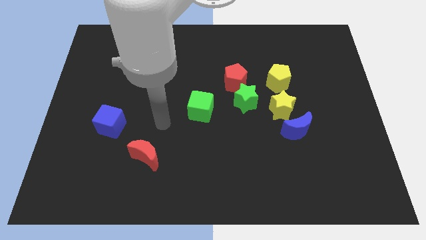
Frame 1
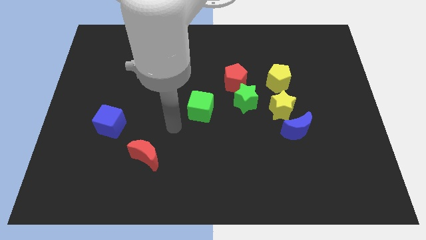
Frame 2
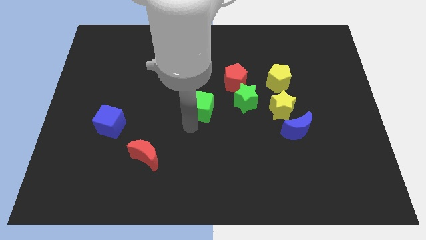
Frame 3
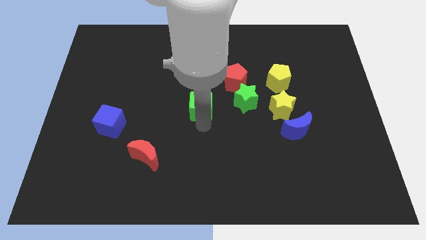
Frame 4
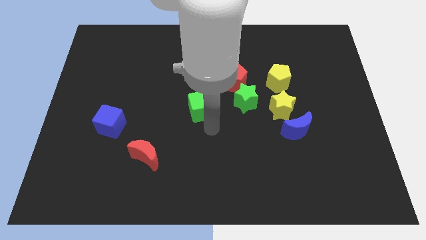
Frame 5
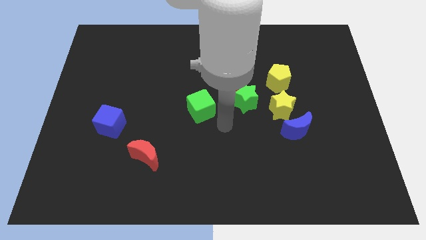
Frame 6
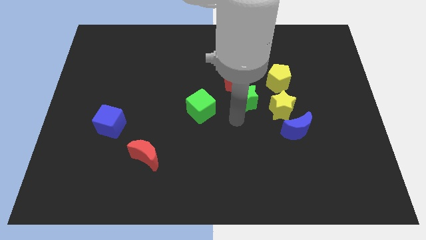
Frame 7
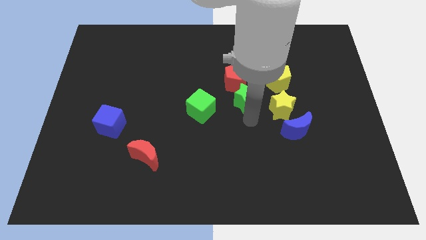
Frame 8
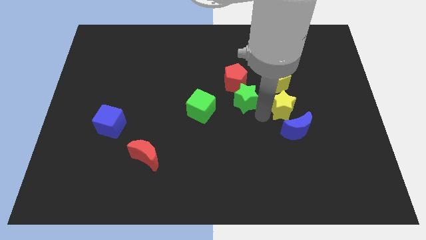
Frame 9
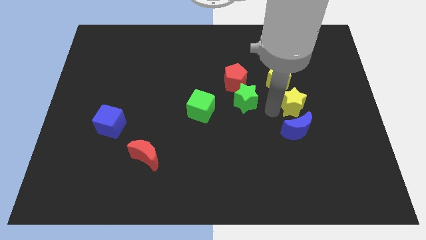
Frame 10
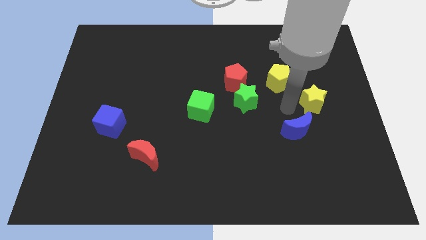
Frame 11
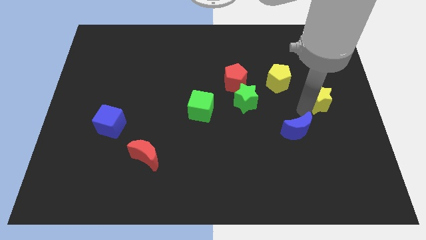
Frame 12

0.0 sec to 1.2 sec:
pull the blue moon apart from the yellow star

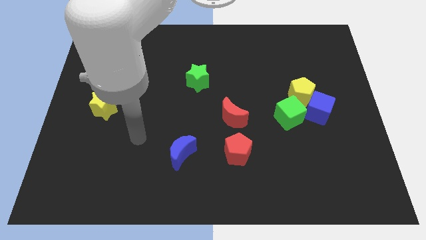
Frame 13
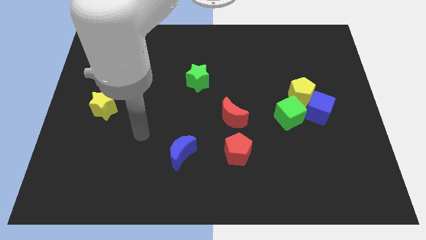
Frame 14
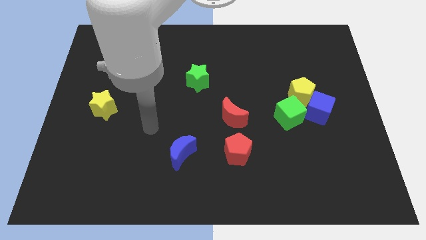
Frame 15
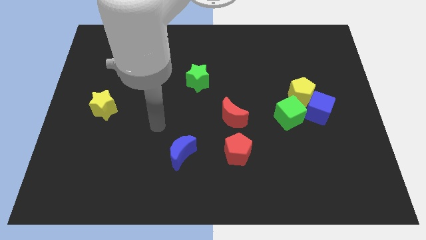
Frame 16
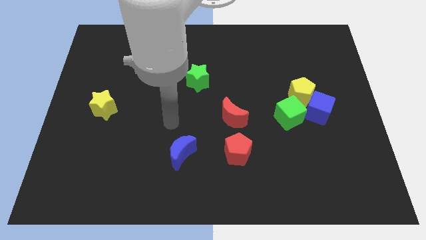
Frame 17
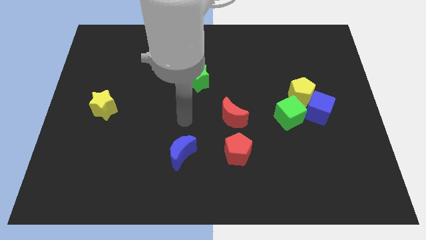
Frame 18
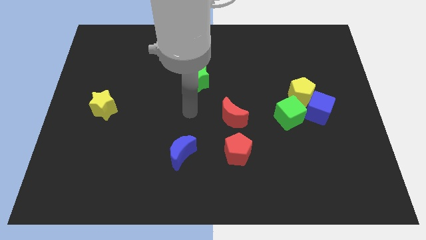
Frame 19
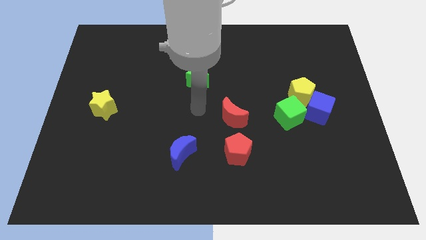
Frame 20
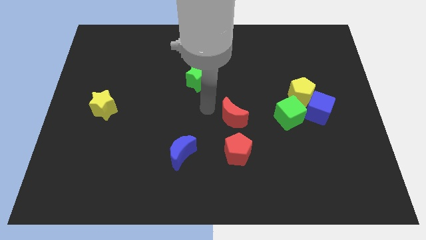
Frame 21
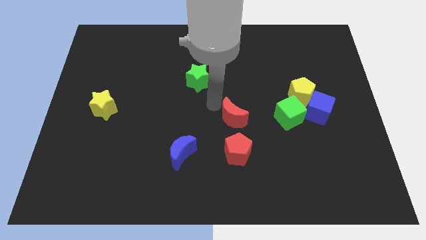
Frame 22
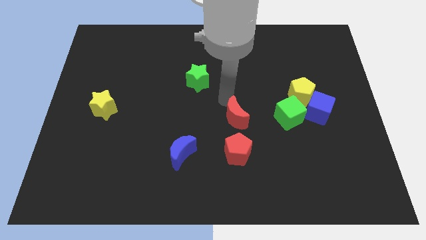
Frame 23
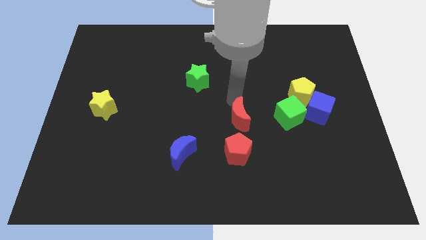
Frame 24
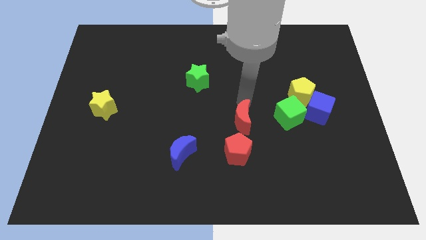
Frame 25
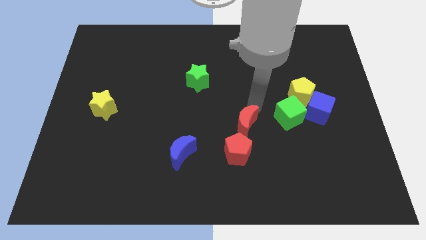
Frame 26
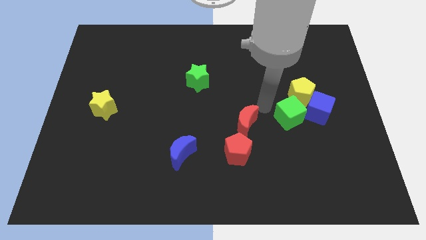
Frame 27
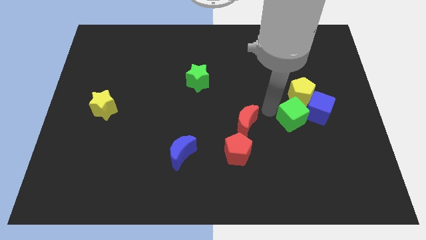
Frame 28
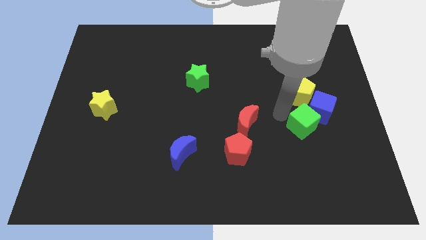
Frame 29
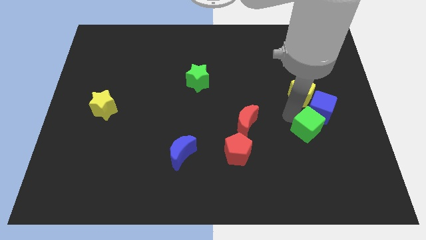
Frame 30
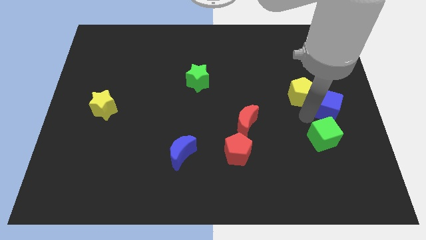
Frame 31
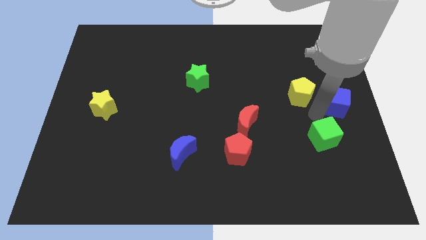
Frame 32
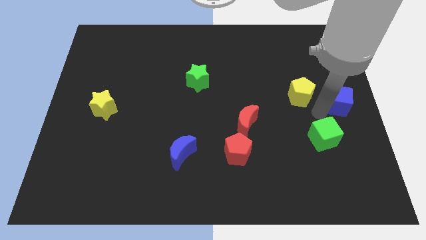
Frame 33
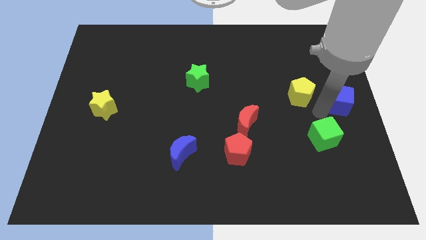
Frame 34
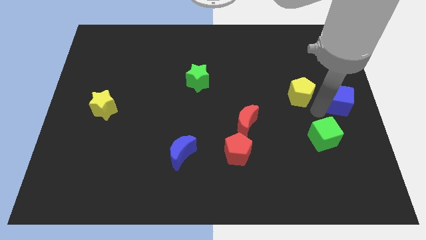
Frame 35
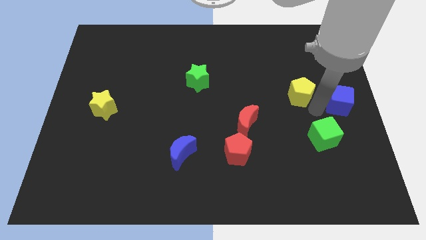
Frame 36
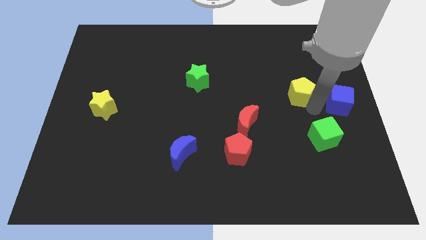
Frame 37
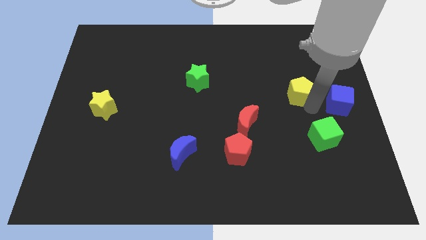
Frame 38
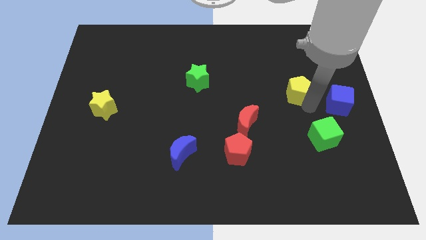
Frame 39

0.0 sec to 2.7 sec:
pull the yellow pentagon apart from the blue cube and green cube

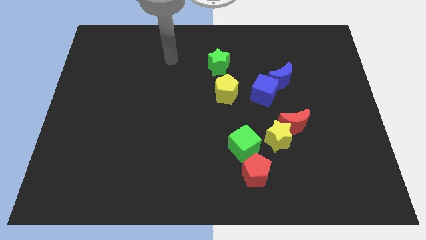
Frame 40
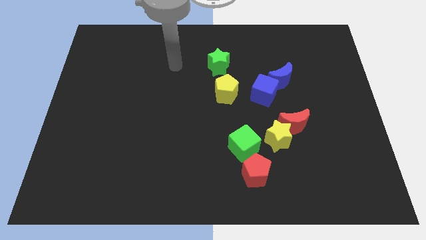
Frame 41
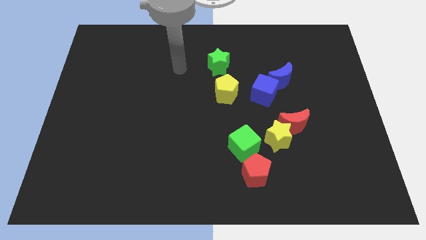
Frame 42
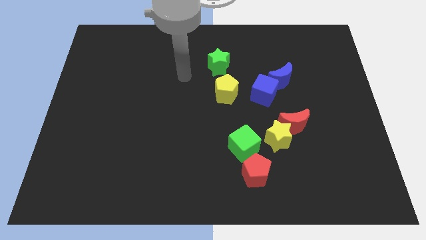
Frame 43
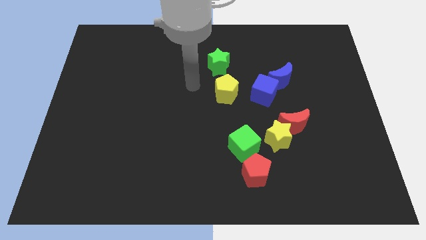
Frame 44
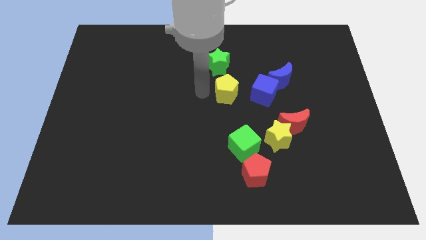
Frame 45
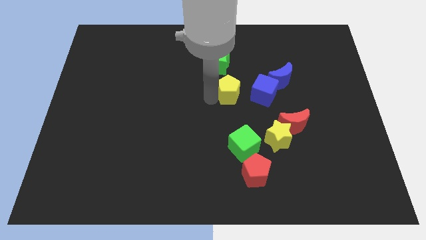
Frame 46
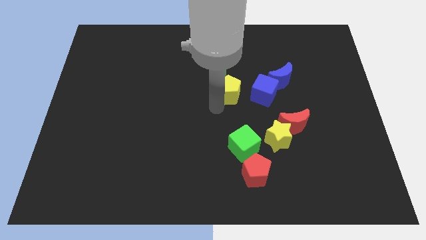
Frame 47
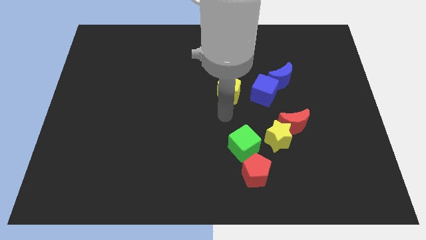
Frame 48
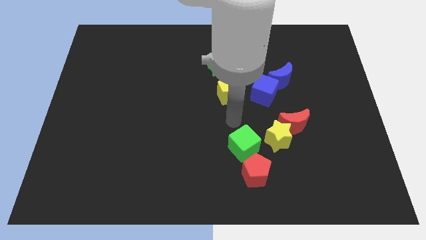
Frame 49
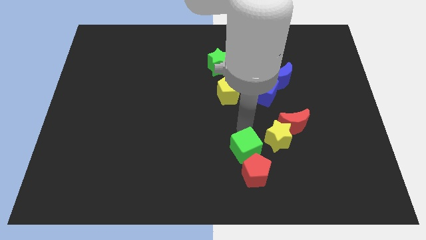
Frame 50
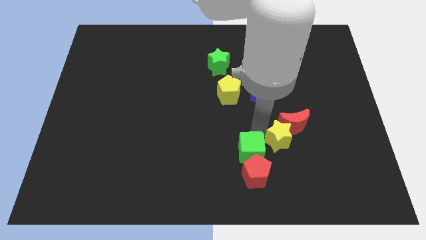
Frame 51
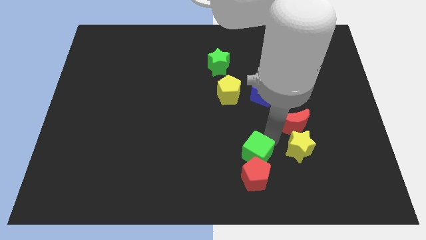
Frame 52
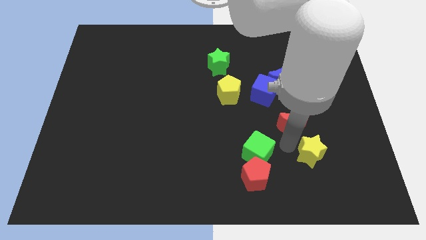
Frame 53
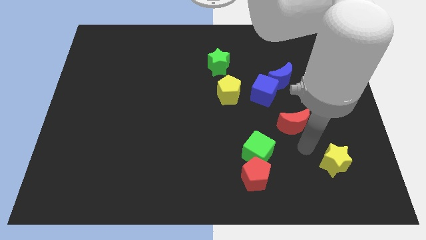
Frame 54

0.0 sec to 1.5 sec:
pull the red moon apart from the yellow star

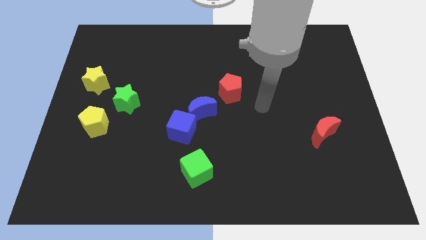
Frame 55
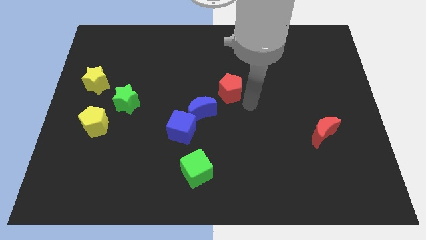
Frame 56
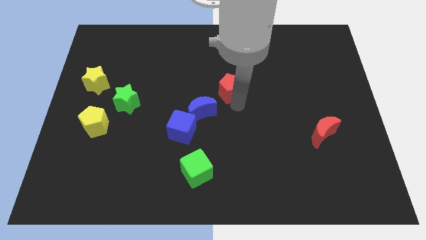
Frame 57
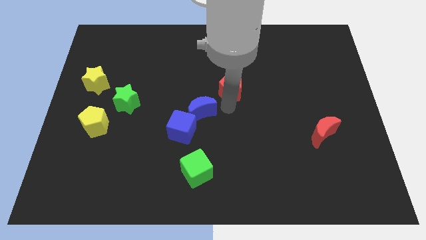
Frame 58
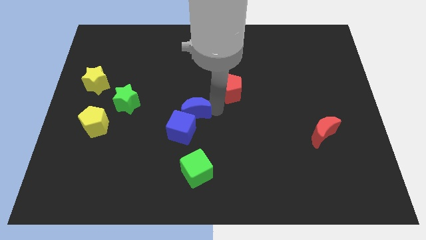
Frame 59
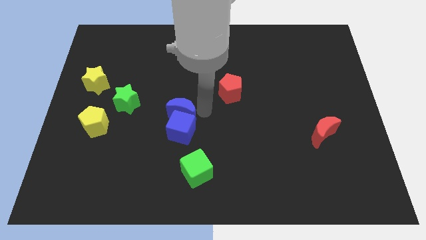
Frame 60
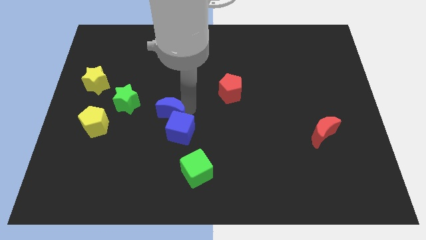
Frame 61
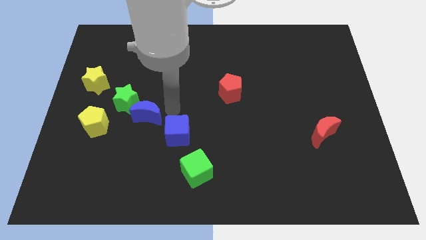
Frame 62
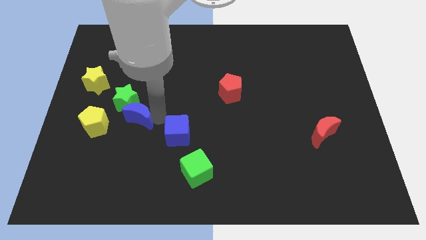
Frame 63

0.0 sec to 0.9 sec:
move the blue cube away from the blue moon

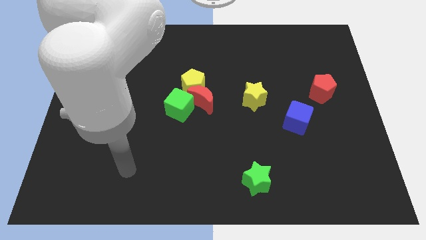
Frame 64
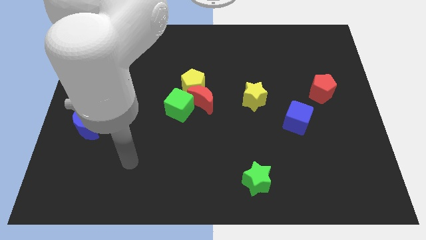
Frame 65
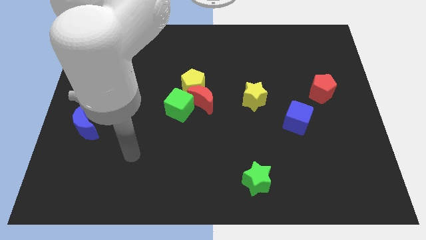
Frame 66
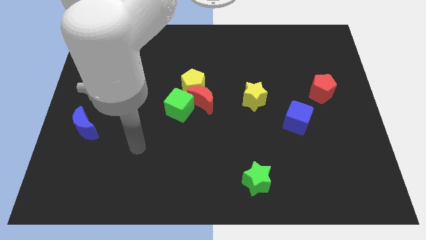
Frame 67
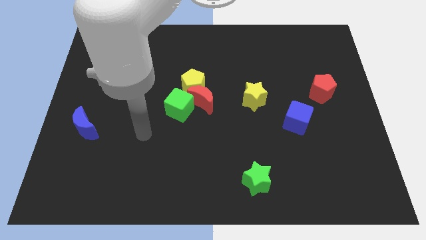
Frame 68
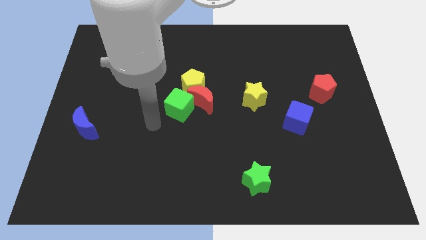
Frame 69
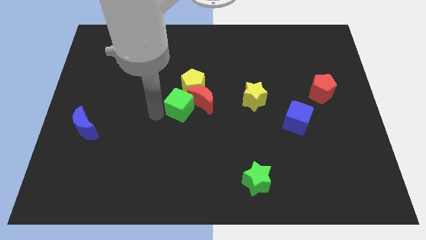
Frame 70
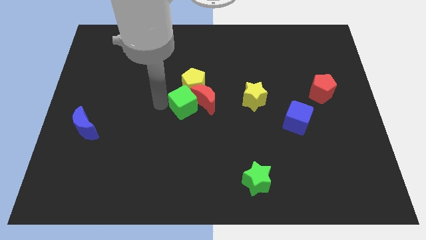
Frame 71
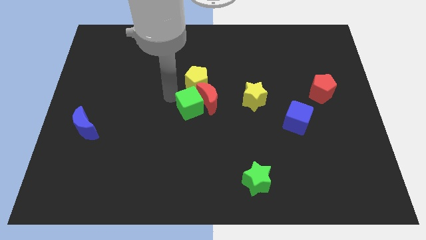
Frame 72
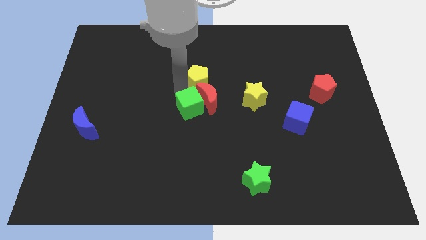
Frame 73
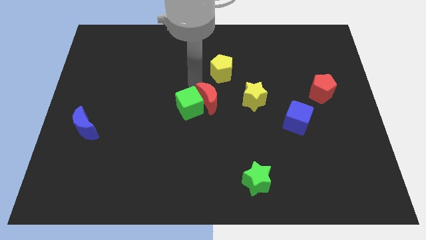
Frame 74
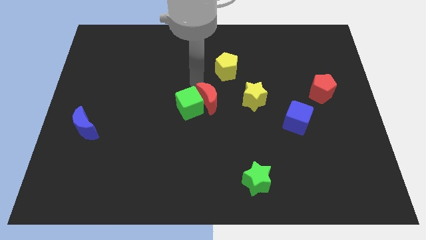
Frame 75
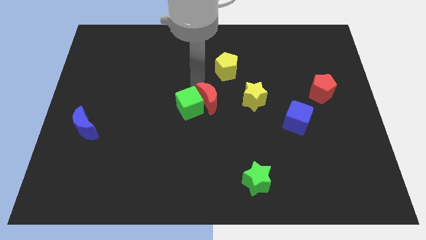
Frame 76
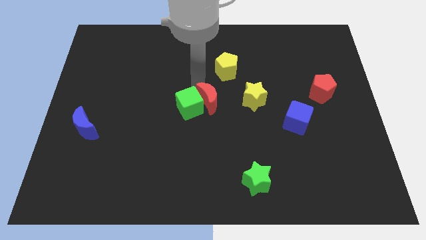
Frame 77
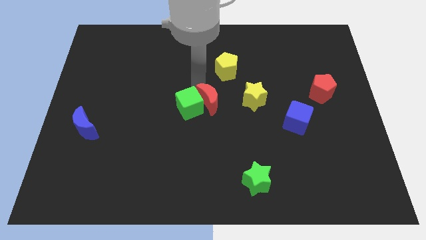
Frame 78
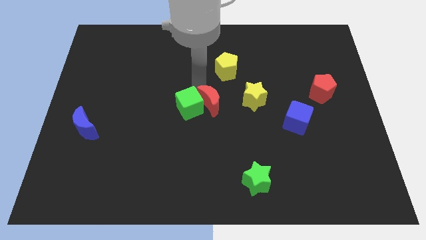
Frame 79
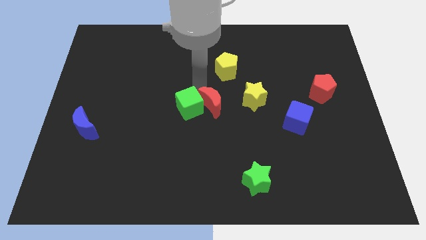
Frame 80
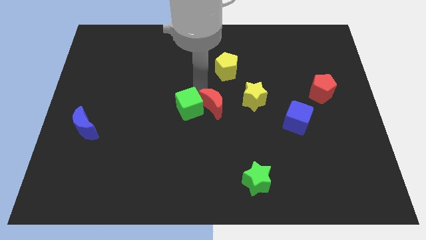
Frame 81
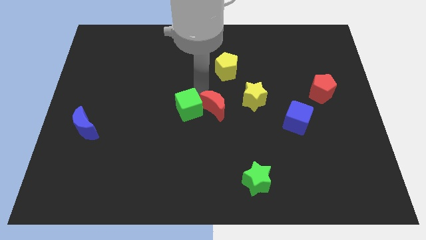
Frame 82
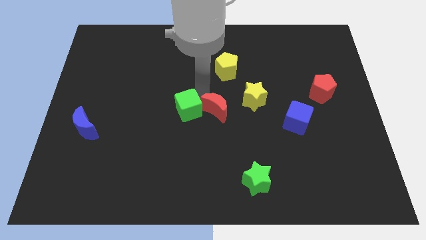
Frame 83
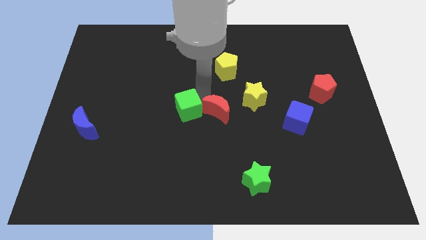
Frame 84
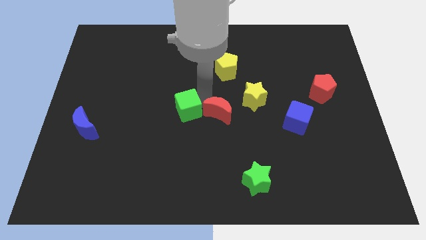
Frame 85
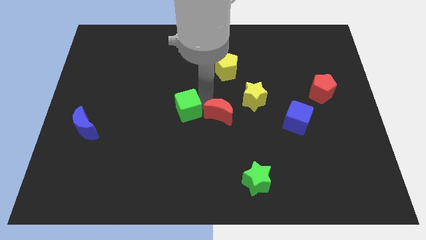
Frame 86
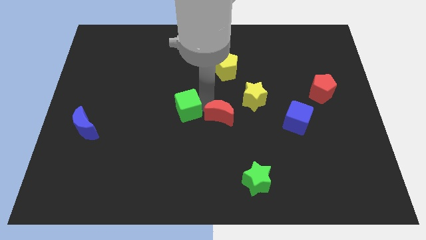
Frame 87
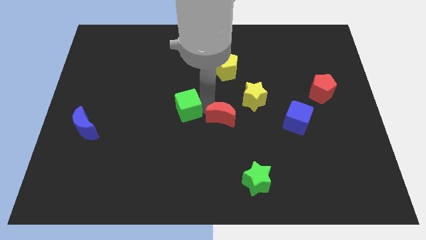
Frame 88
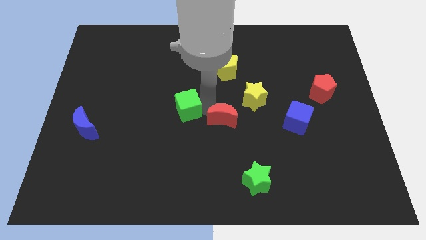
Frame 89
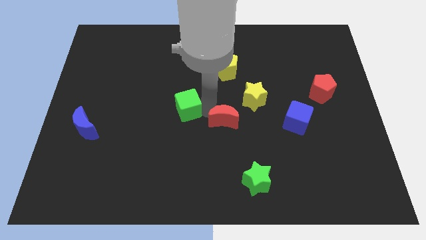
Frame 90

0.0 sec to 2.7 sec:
move the red moon away from the yellow pentagon and green cube

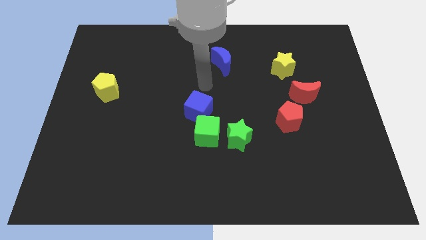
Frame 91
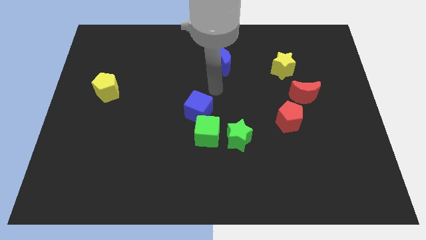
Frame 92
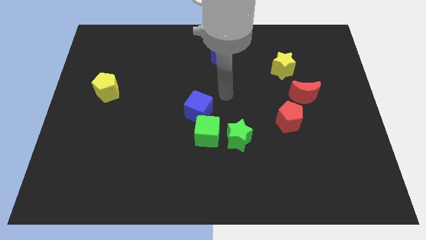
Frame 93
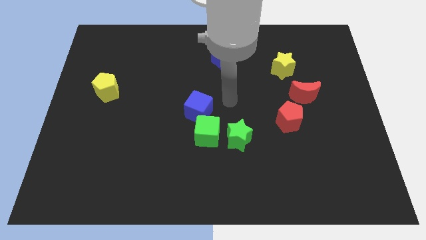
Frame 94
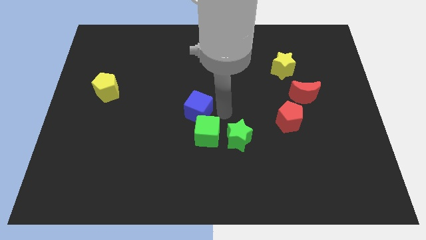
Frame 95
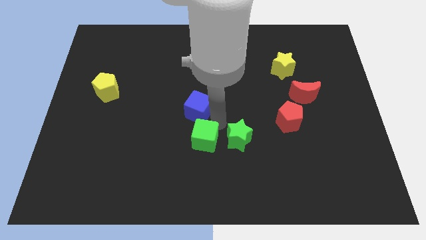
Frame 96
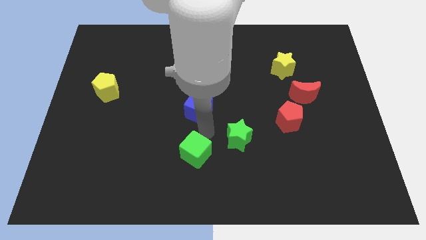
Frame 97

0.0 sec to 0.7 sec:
pull the blue cube apart from the green cube
